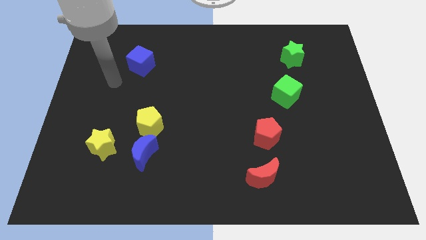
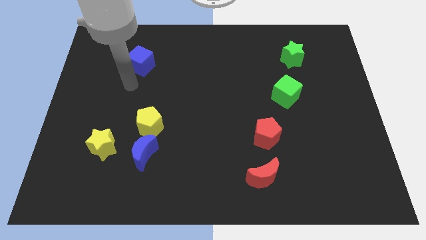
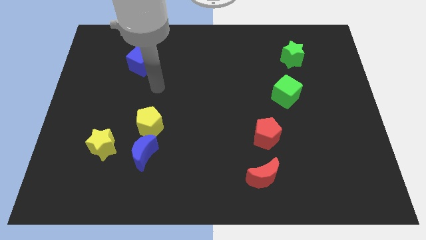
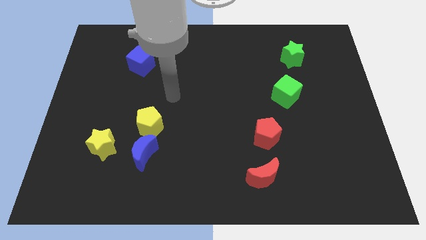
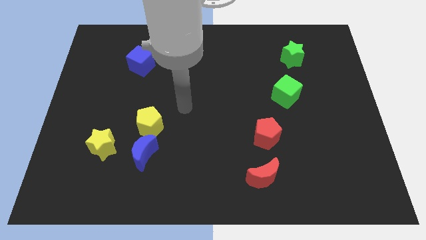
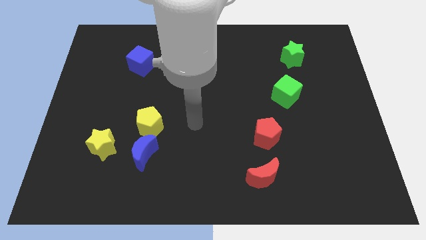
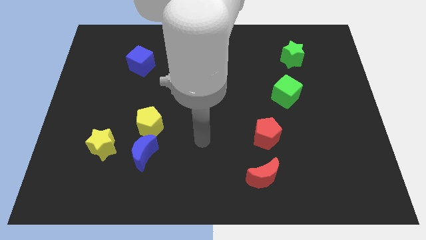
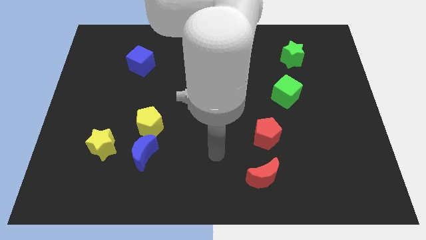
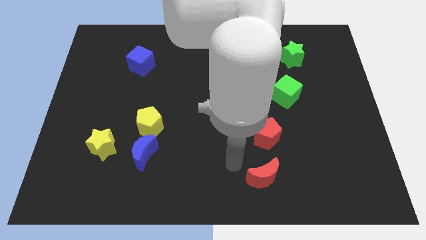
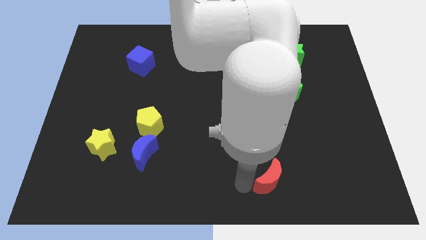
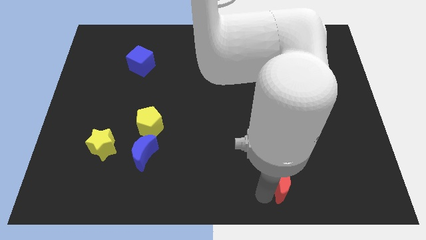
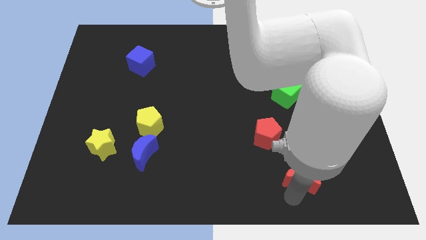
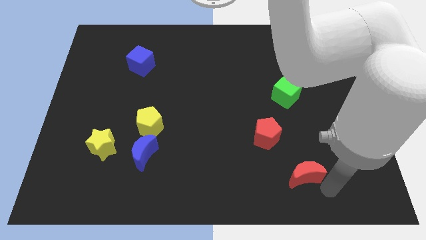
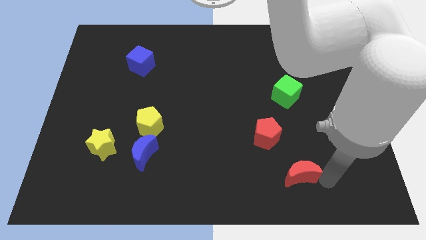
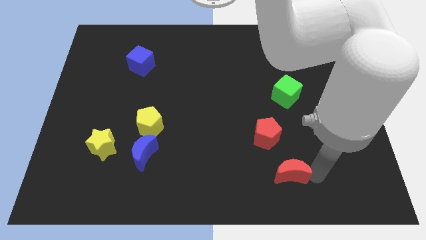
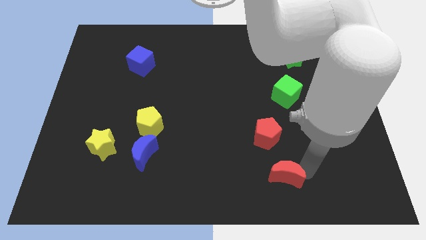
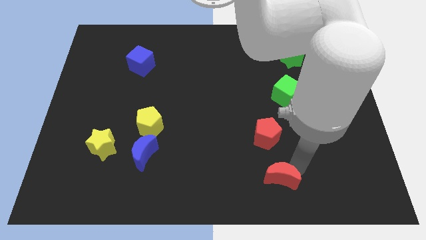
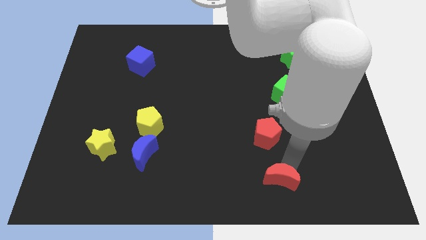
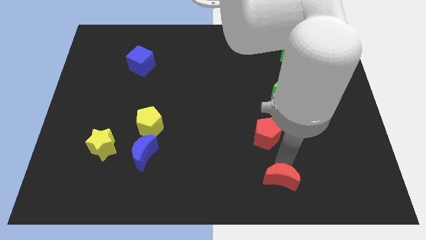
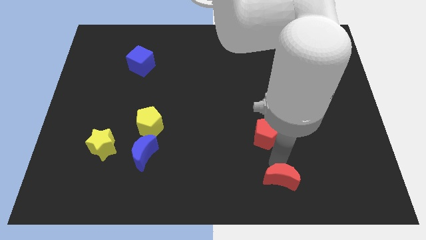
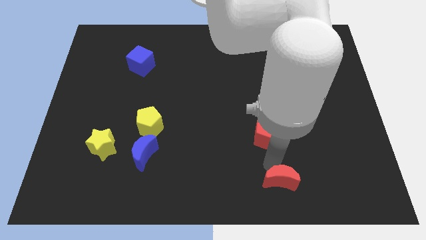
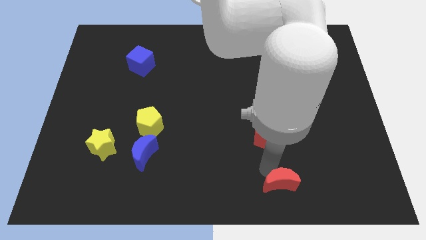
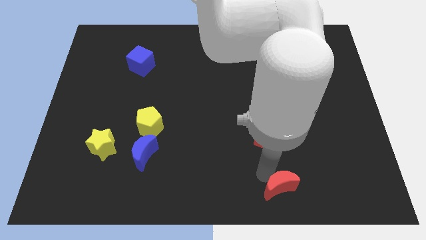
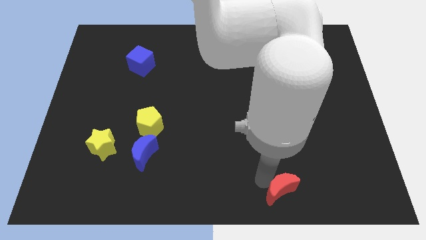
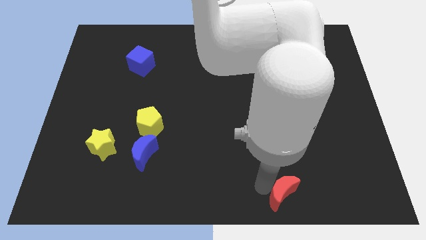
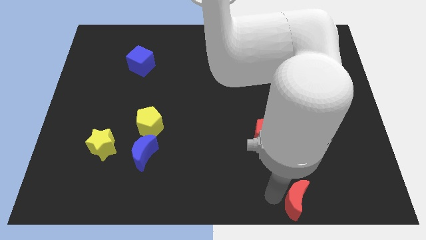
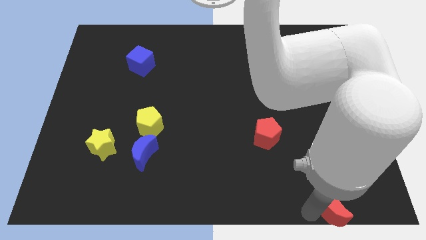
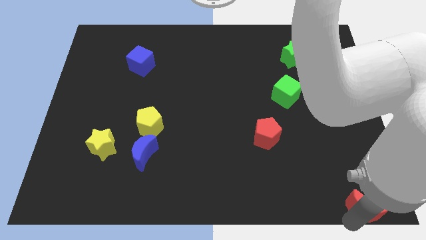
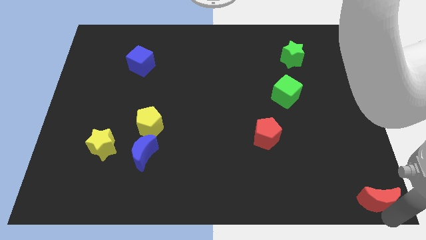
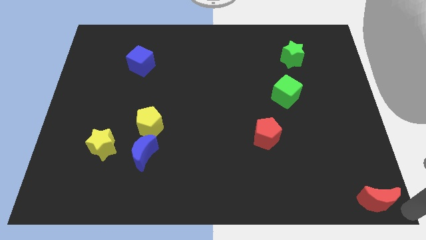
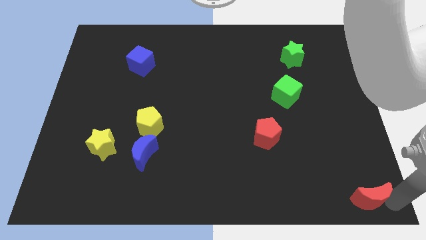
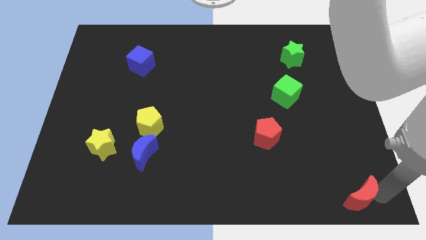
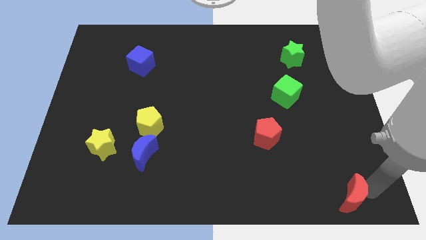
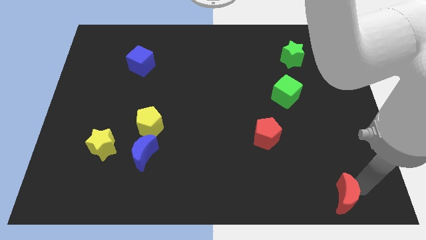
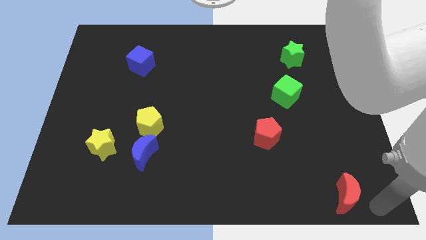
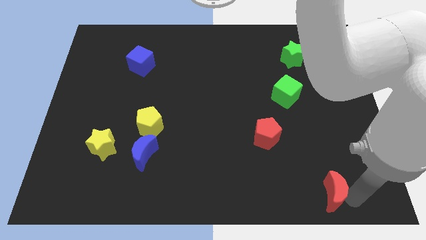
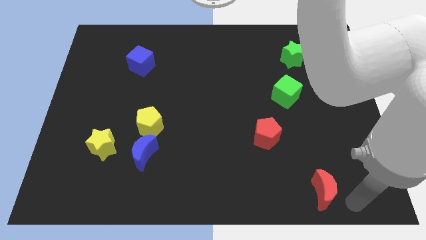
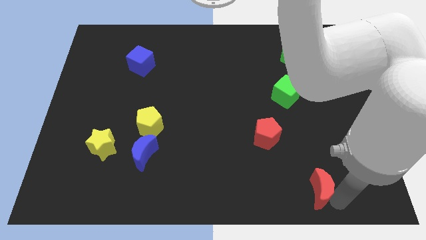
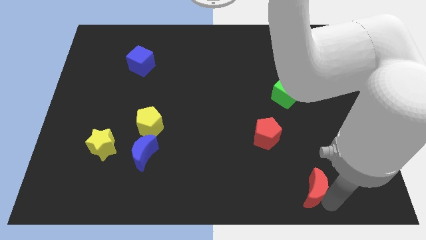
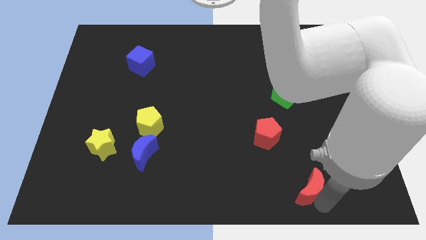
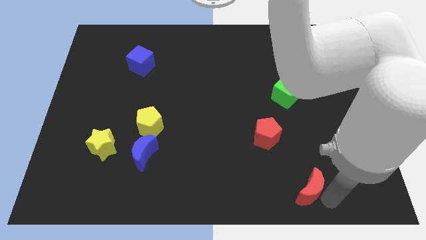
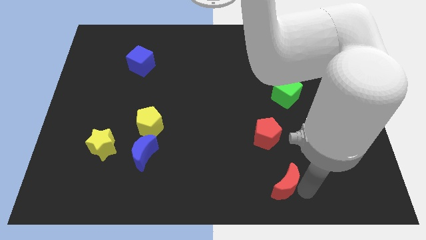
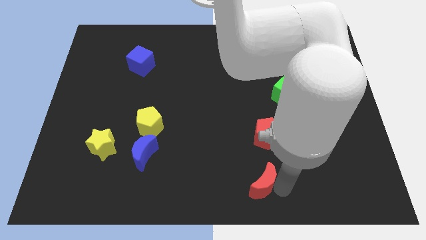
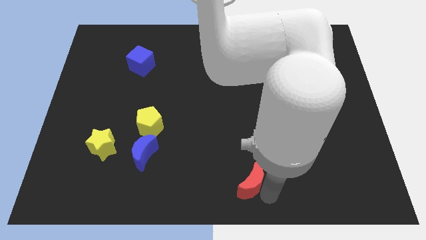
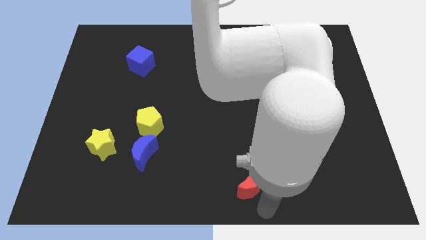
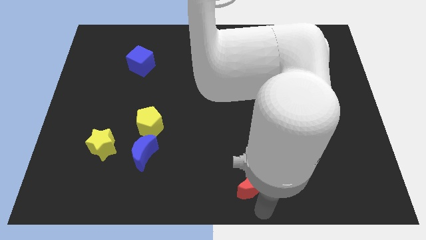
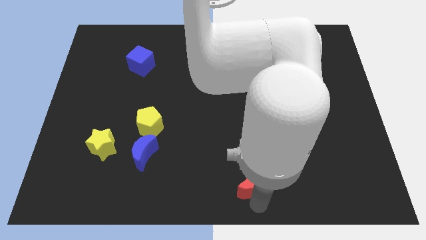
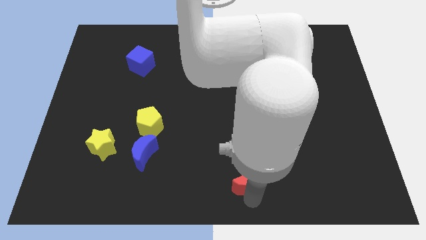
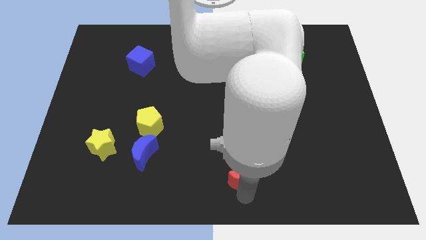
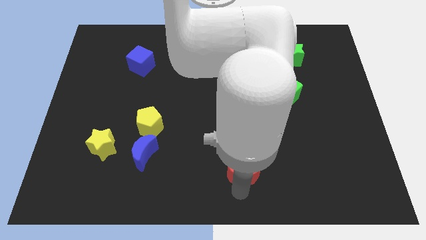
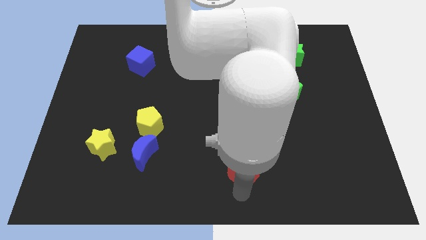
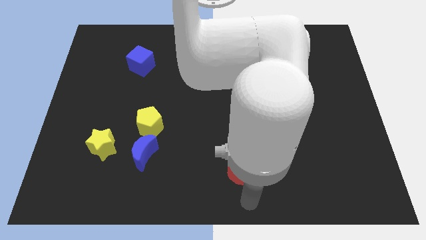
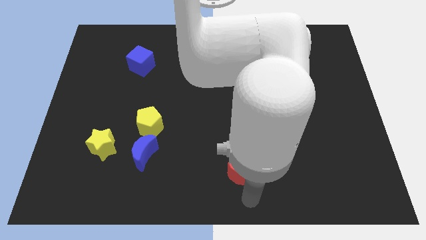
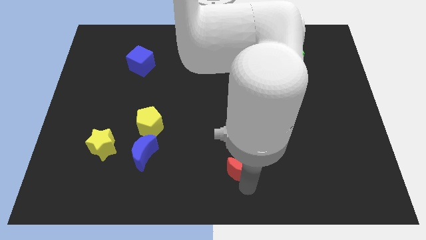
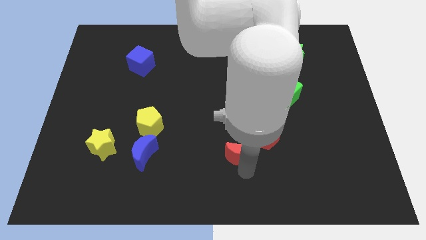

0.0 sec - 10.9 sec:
slide the red moon upwards and then left somewhat

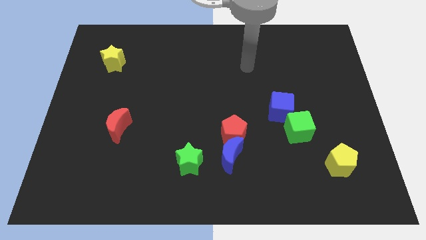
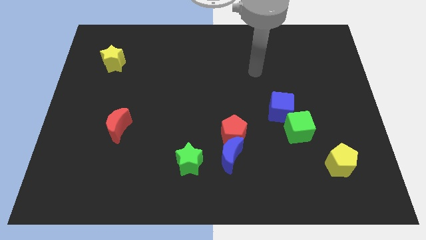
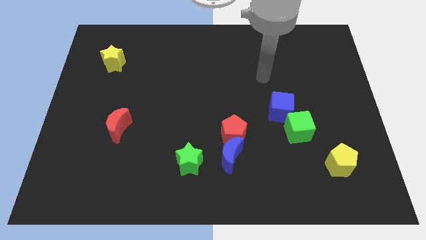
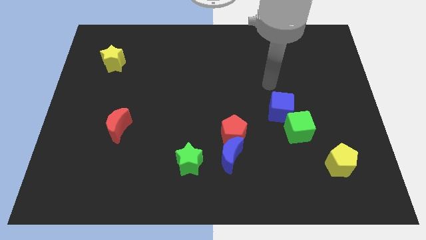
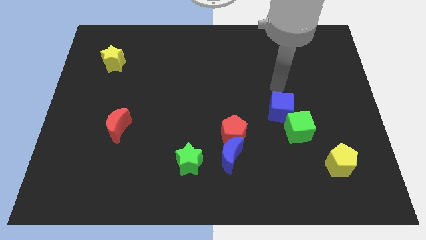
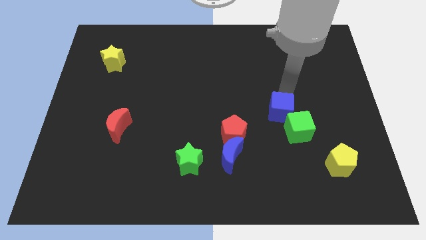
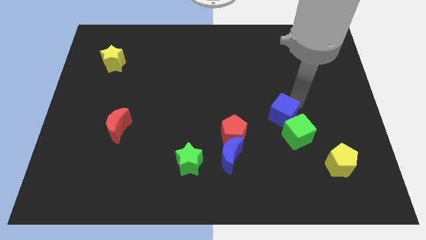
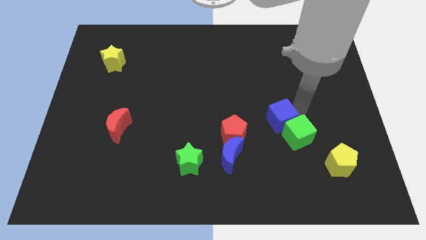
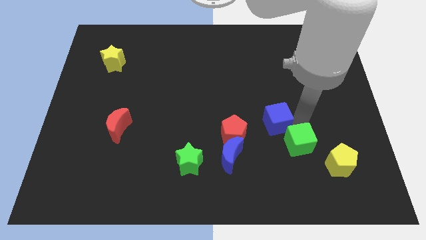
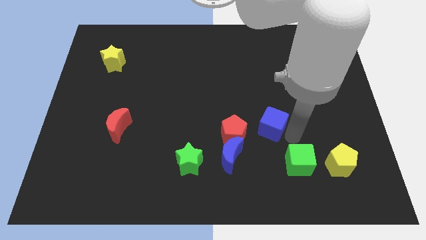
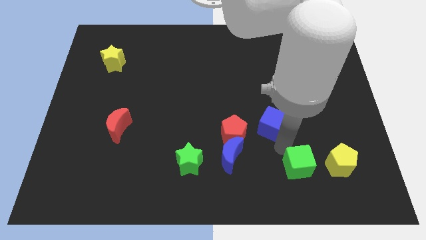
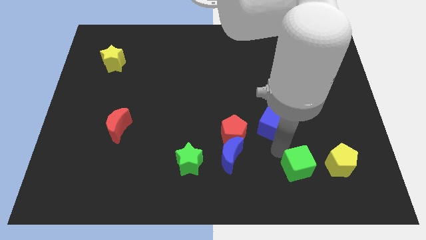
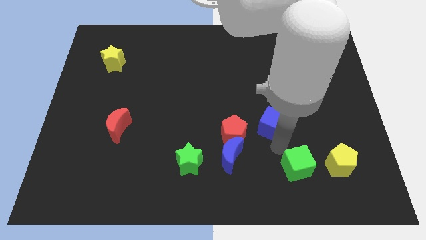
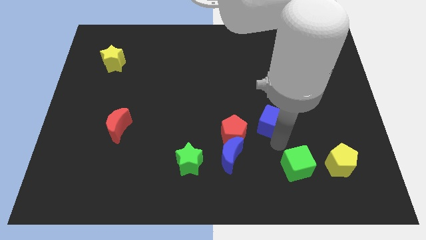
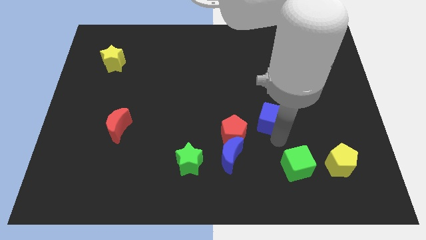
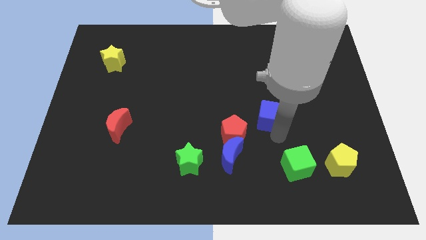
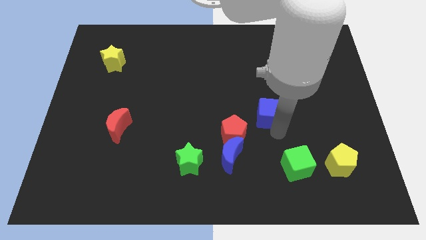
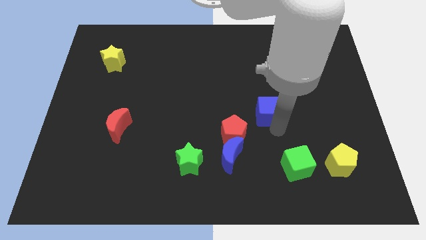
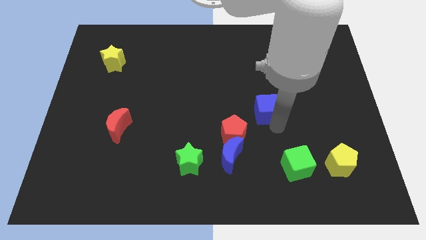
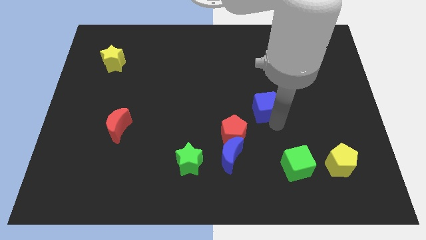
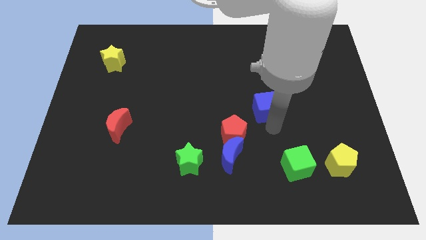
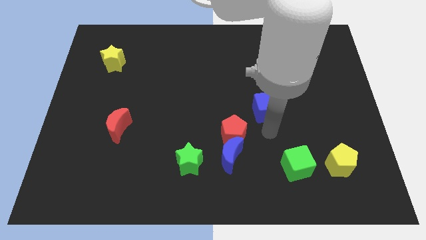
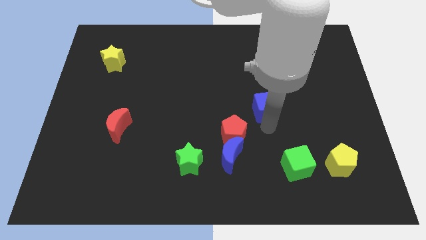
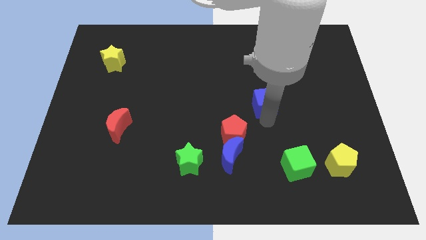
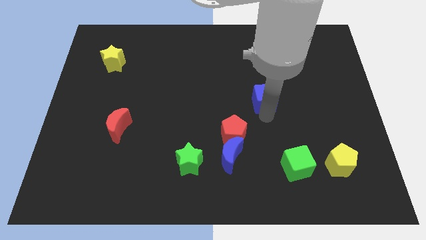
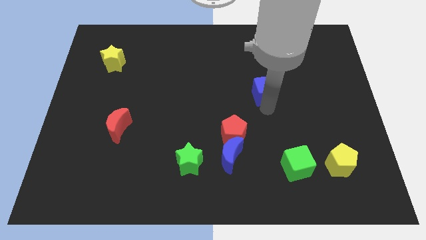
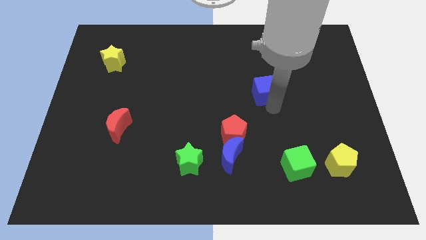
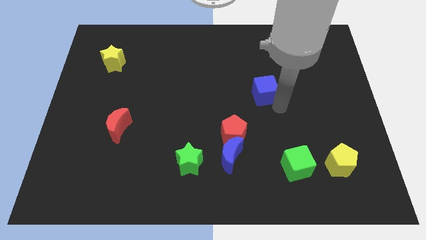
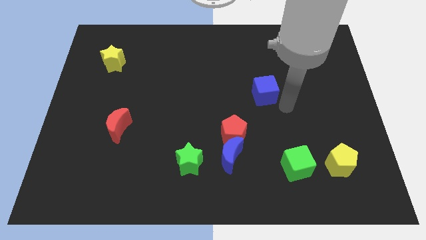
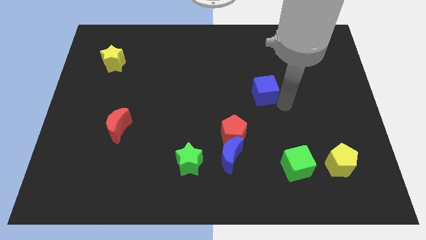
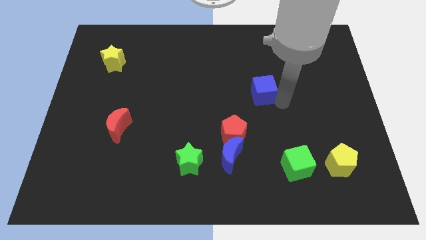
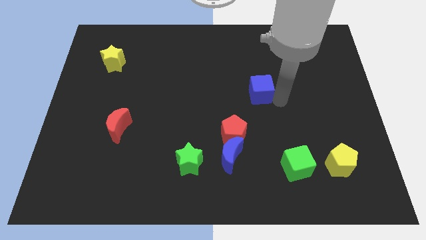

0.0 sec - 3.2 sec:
slide the blue cube upwards and left slightly
